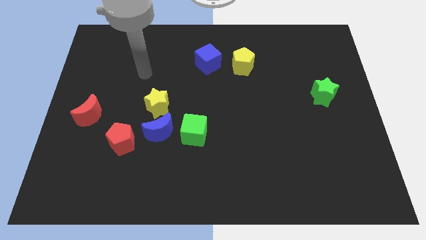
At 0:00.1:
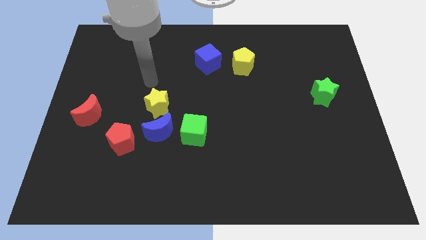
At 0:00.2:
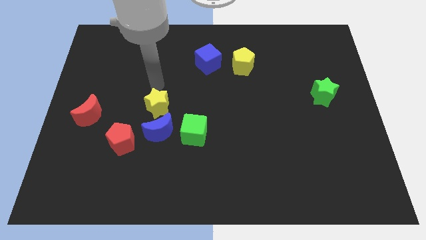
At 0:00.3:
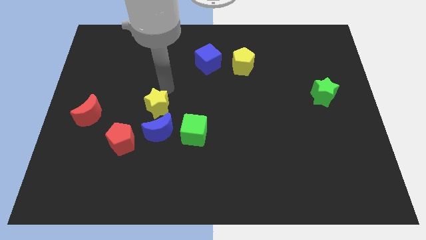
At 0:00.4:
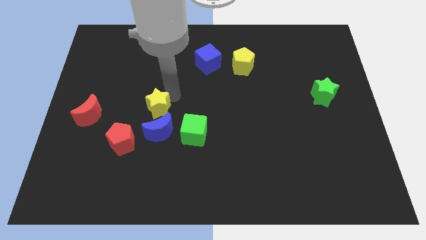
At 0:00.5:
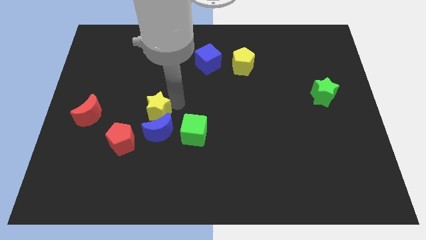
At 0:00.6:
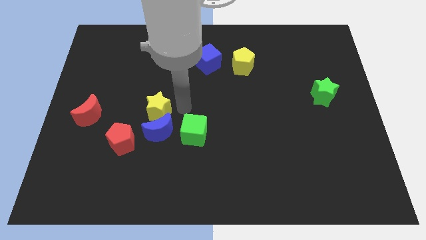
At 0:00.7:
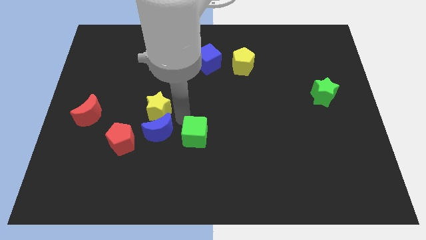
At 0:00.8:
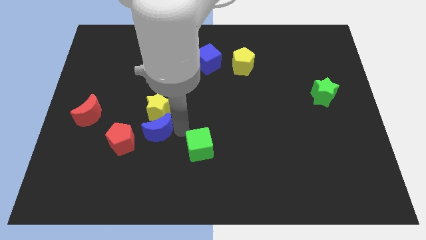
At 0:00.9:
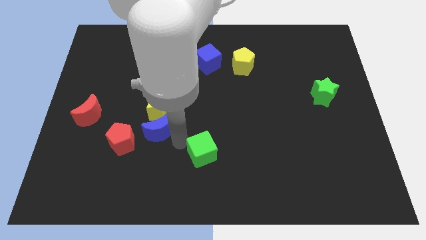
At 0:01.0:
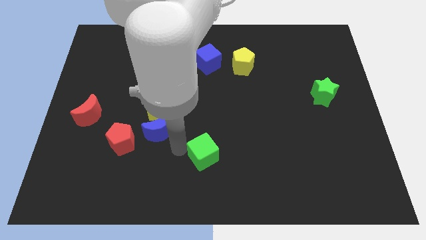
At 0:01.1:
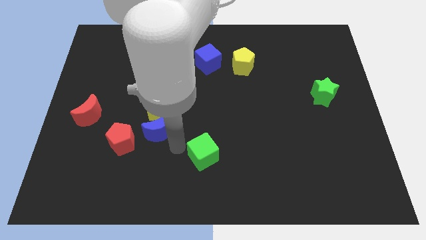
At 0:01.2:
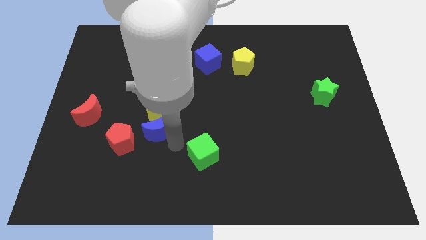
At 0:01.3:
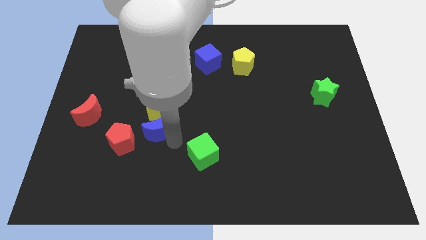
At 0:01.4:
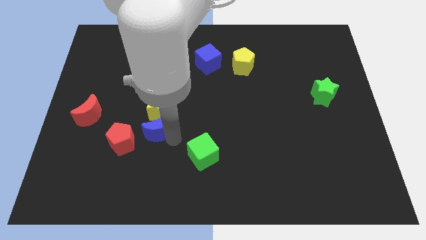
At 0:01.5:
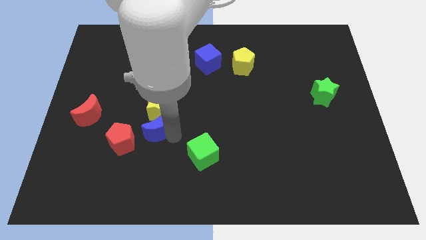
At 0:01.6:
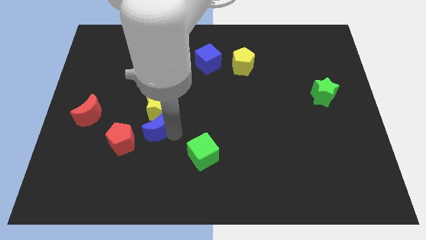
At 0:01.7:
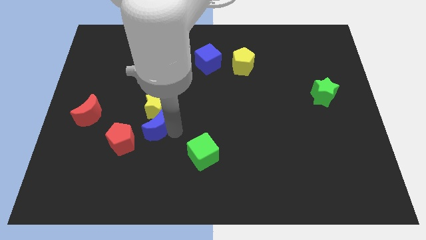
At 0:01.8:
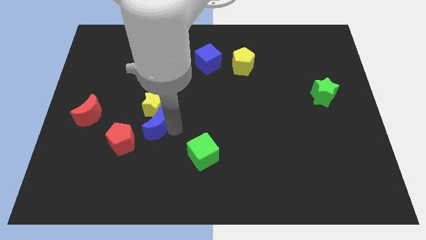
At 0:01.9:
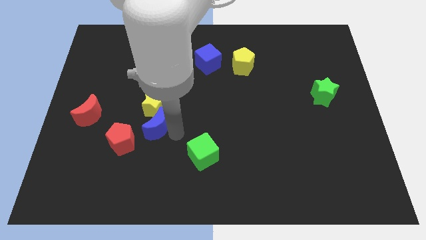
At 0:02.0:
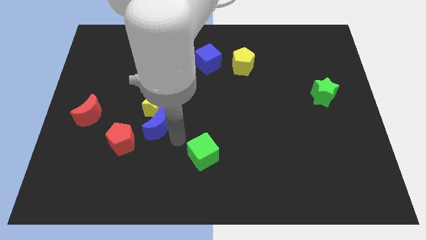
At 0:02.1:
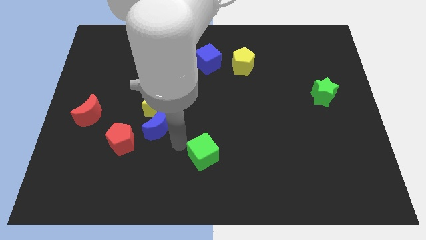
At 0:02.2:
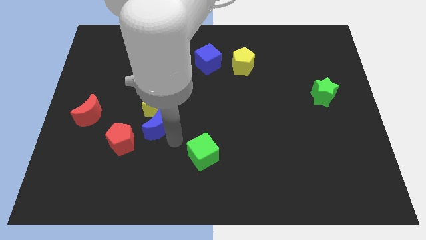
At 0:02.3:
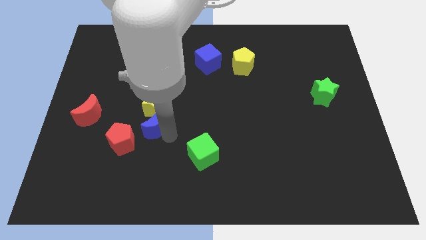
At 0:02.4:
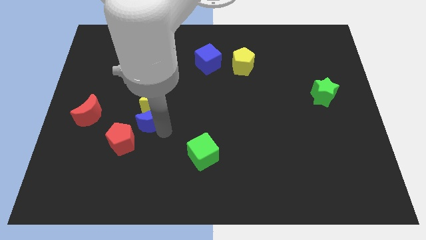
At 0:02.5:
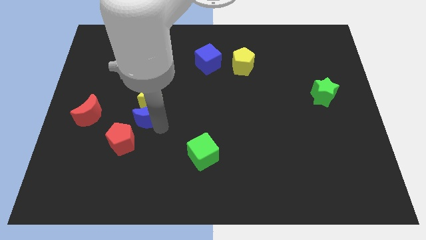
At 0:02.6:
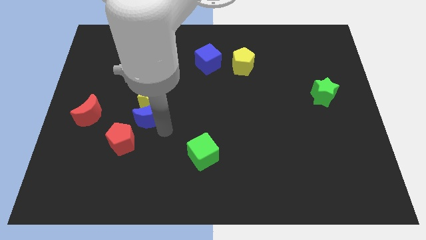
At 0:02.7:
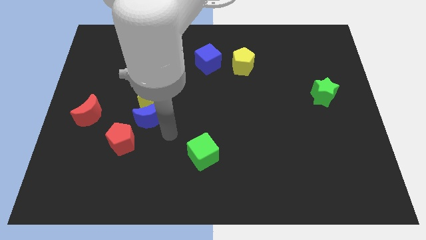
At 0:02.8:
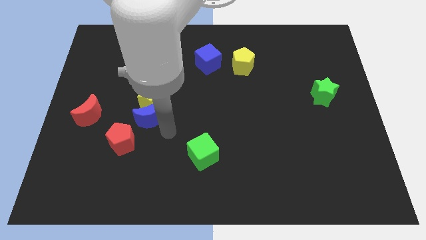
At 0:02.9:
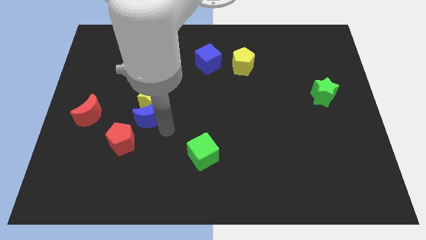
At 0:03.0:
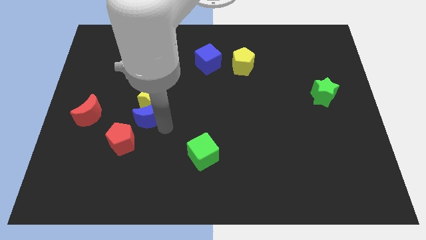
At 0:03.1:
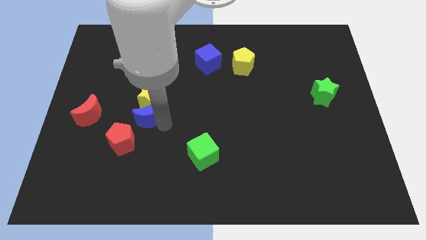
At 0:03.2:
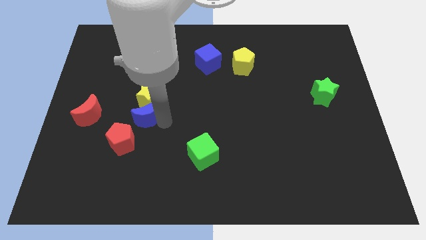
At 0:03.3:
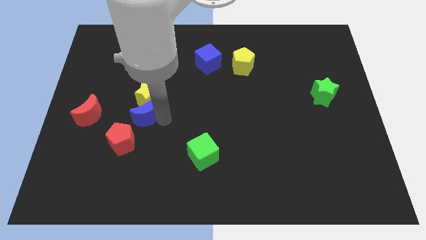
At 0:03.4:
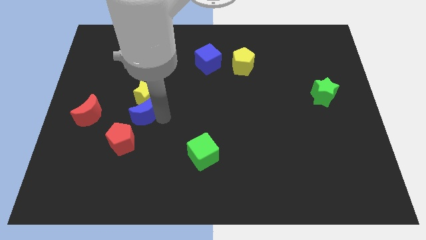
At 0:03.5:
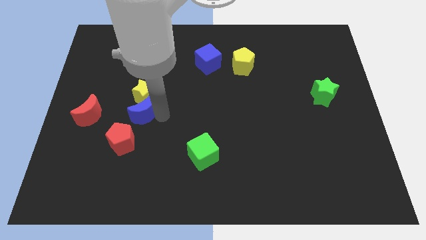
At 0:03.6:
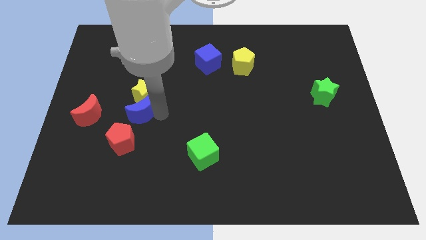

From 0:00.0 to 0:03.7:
push the blue moon slightly upwards and to the left

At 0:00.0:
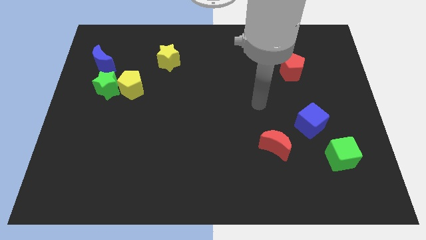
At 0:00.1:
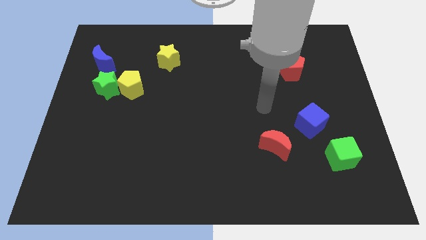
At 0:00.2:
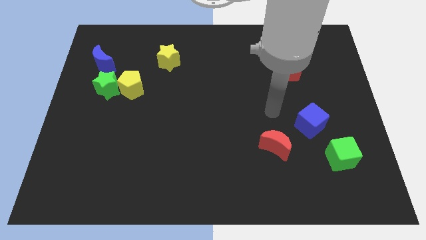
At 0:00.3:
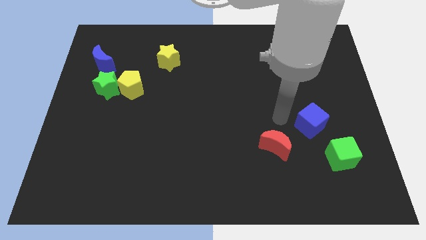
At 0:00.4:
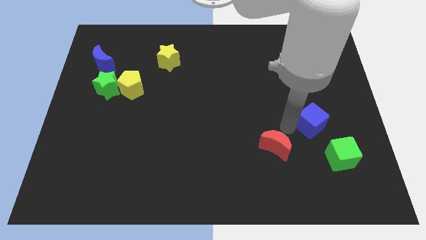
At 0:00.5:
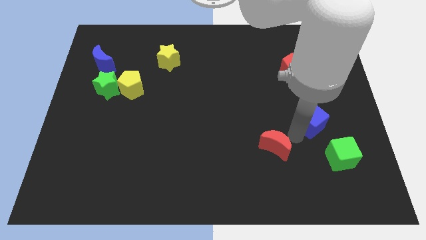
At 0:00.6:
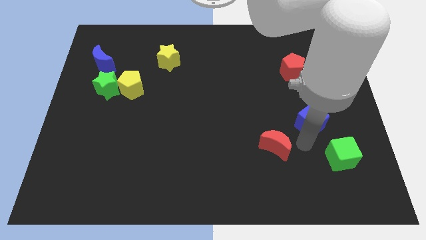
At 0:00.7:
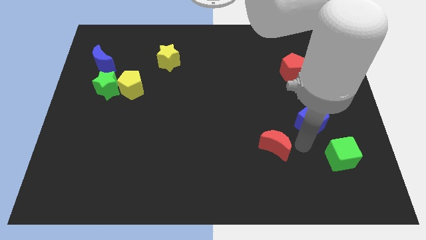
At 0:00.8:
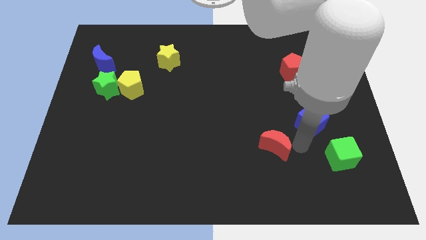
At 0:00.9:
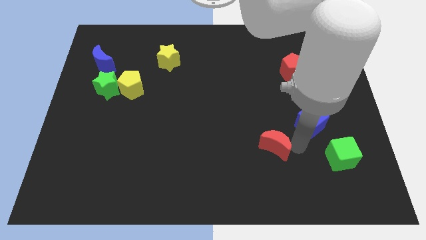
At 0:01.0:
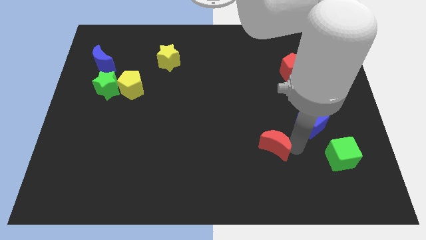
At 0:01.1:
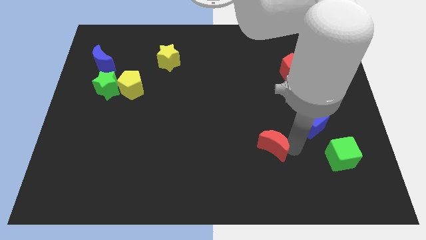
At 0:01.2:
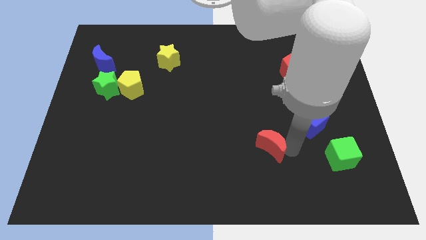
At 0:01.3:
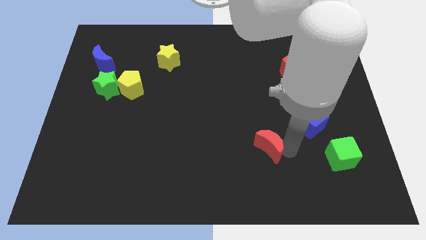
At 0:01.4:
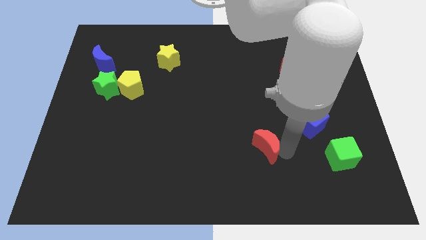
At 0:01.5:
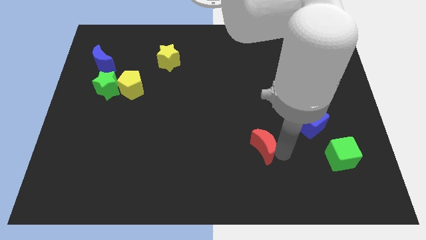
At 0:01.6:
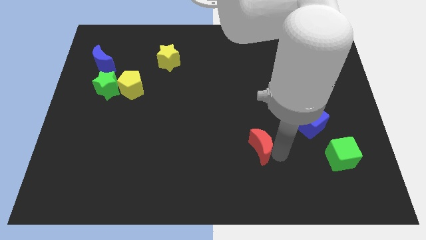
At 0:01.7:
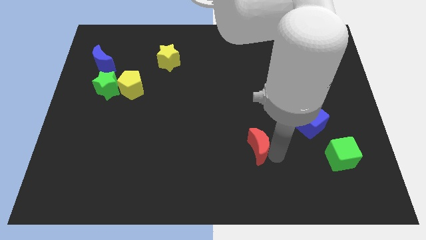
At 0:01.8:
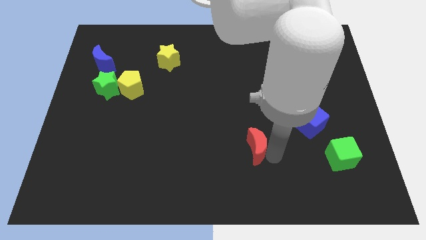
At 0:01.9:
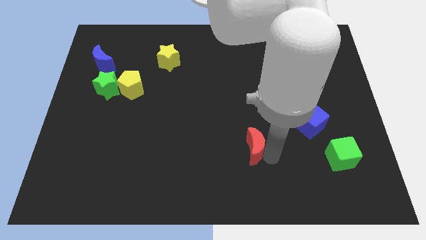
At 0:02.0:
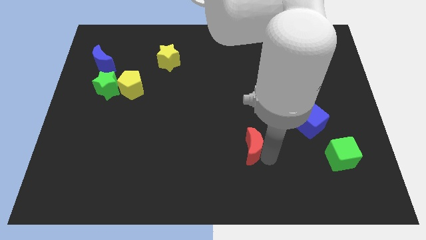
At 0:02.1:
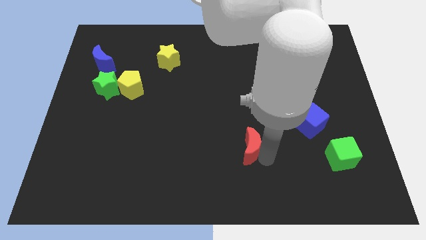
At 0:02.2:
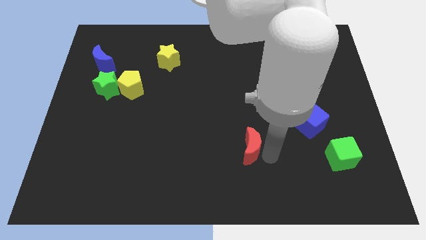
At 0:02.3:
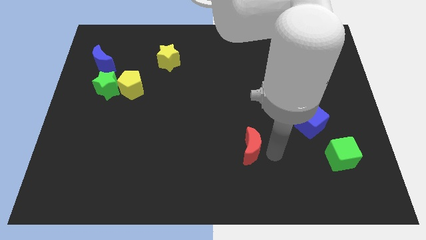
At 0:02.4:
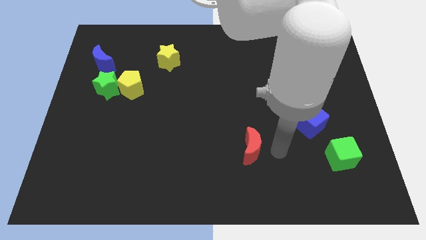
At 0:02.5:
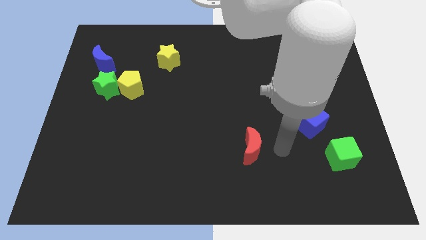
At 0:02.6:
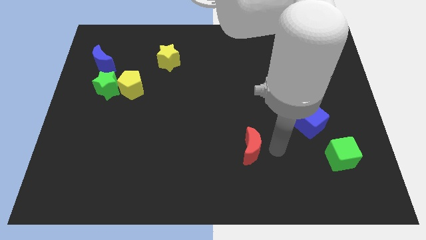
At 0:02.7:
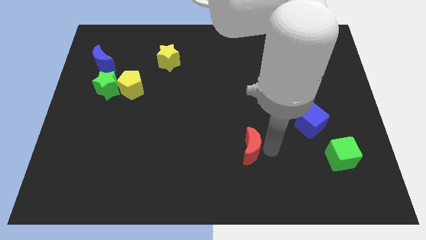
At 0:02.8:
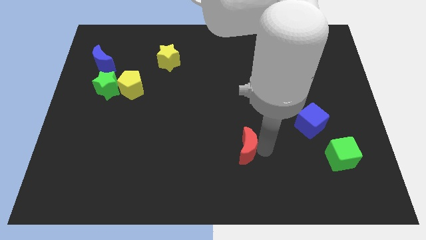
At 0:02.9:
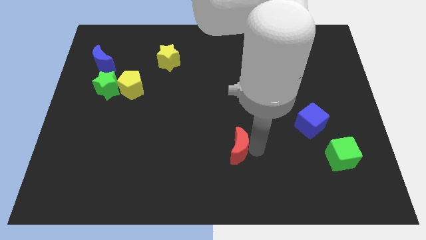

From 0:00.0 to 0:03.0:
slightly move the red moon left

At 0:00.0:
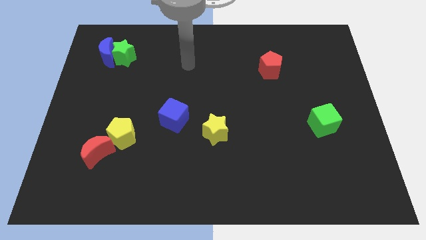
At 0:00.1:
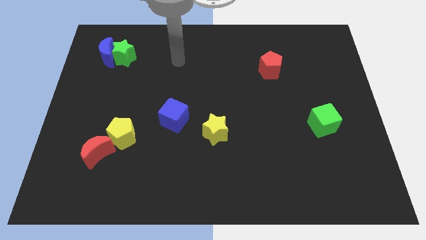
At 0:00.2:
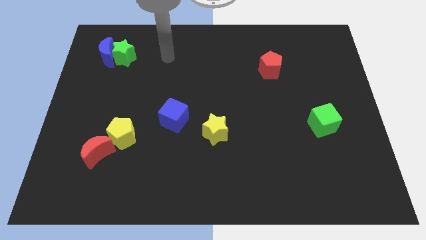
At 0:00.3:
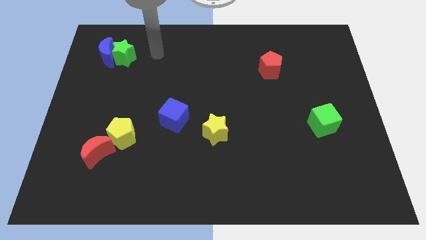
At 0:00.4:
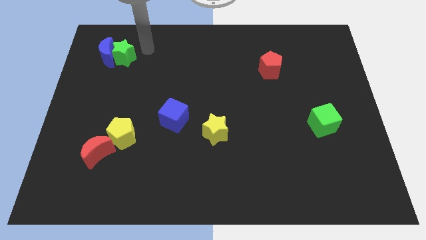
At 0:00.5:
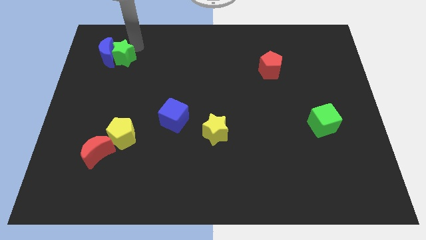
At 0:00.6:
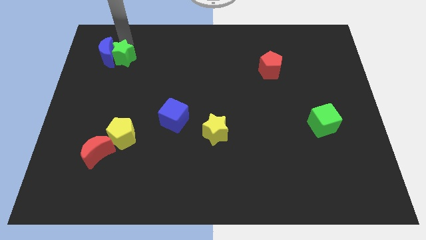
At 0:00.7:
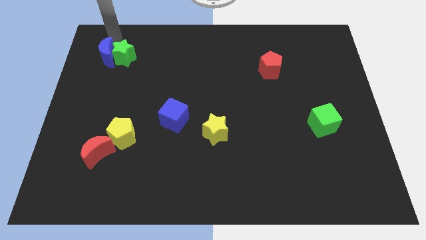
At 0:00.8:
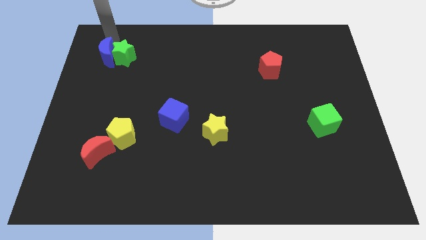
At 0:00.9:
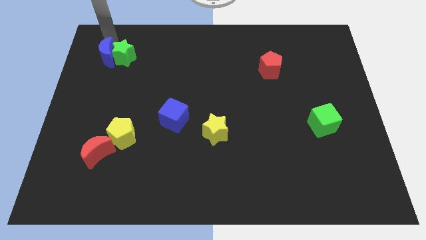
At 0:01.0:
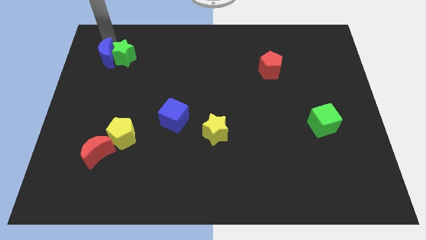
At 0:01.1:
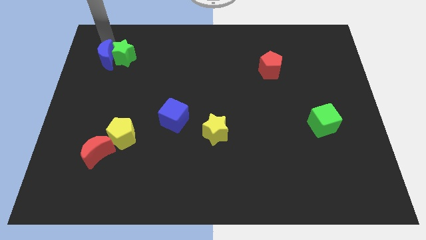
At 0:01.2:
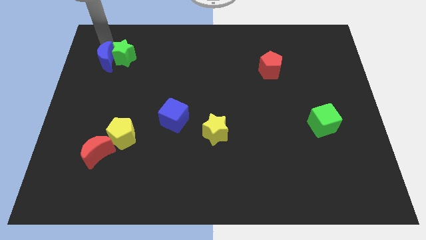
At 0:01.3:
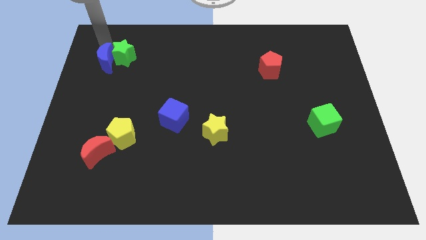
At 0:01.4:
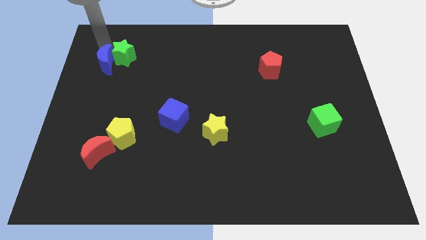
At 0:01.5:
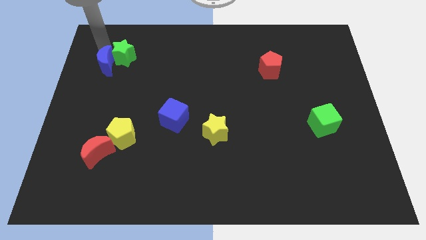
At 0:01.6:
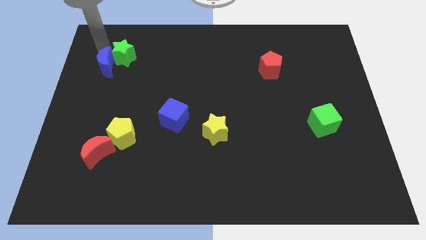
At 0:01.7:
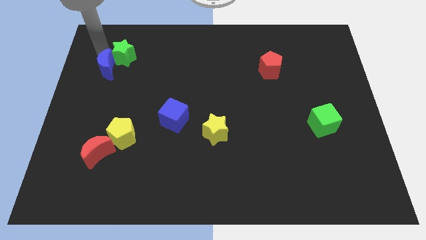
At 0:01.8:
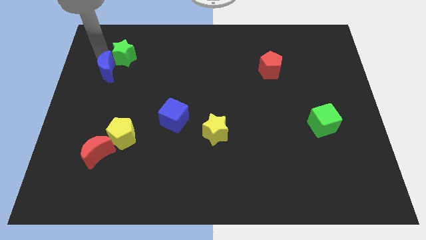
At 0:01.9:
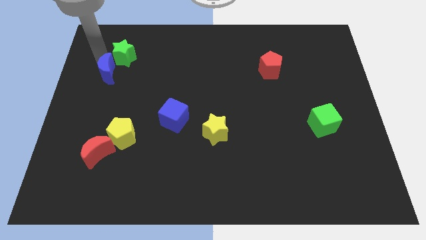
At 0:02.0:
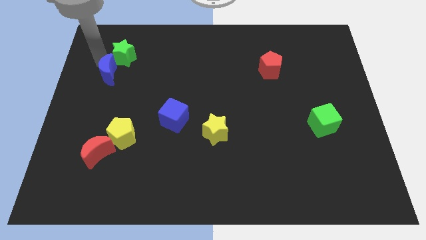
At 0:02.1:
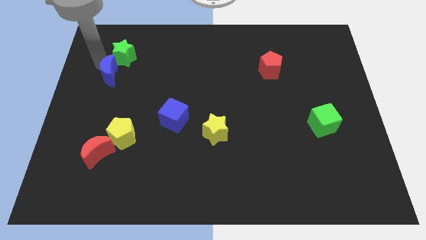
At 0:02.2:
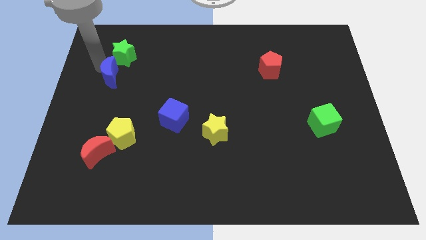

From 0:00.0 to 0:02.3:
slightly slide the blue moon downwards
